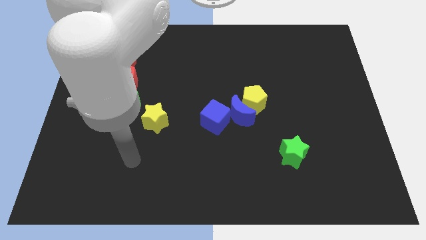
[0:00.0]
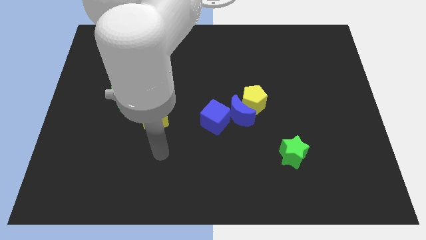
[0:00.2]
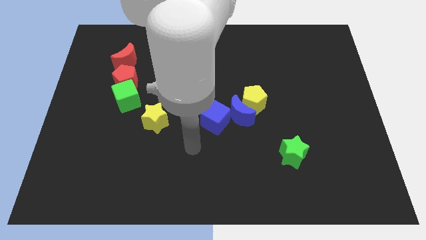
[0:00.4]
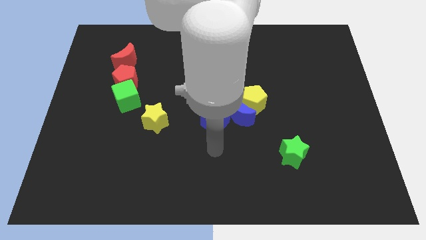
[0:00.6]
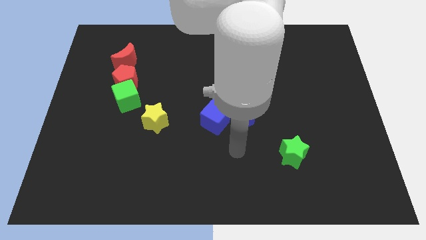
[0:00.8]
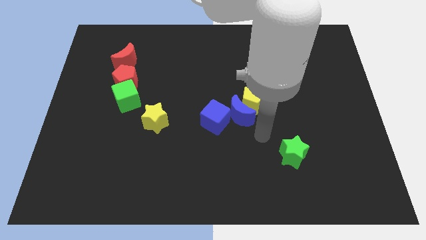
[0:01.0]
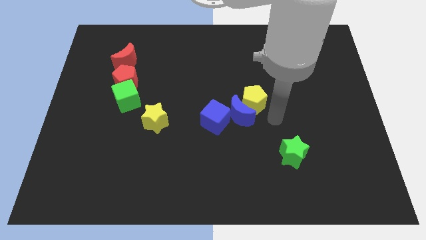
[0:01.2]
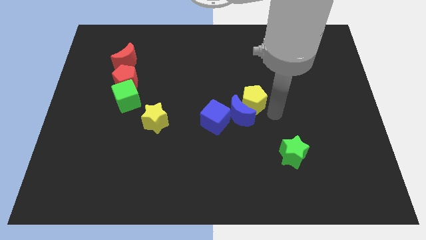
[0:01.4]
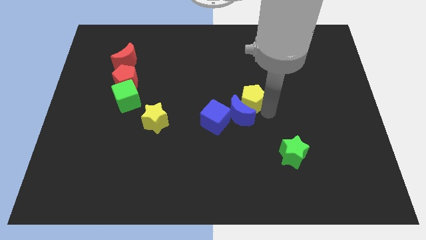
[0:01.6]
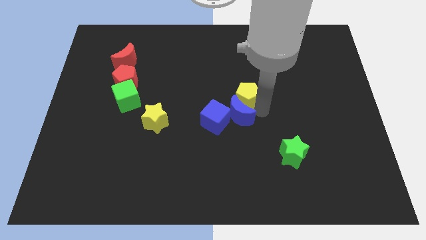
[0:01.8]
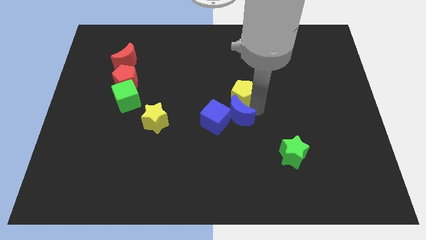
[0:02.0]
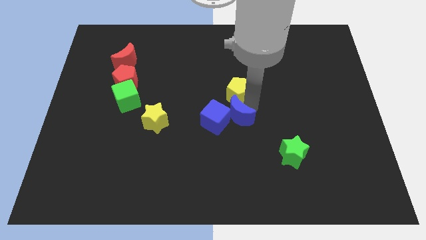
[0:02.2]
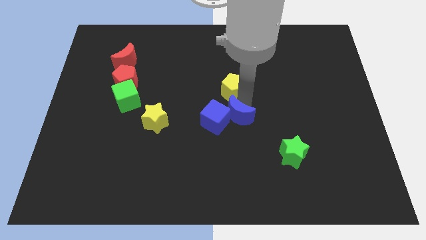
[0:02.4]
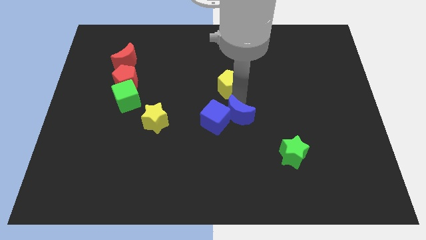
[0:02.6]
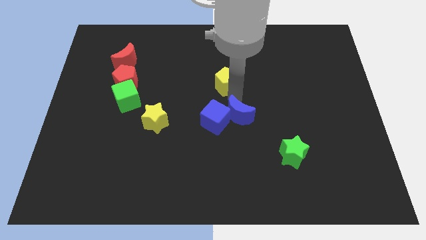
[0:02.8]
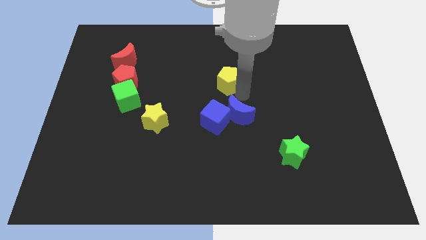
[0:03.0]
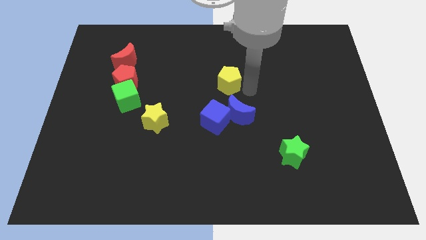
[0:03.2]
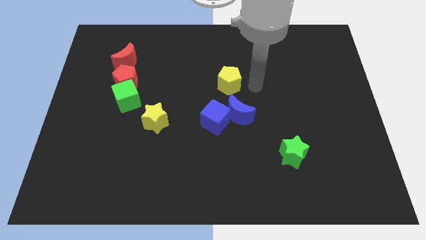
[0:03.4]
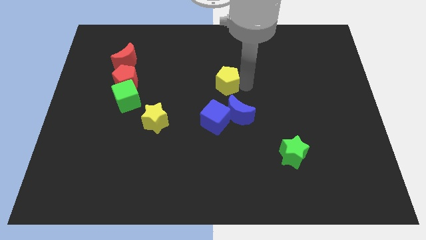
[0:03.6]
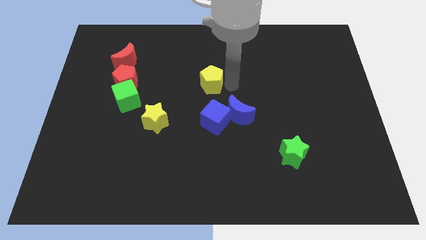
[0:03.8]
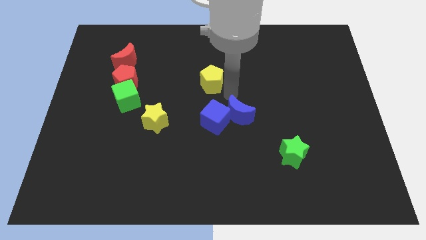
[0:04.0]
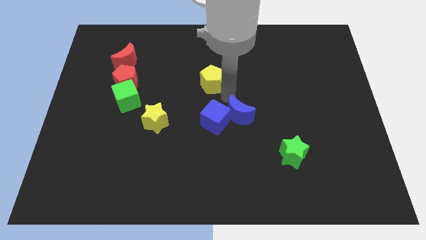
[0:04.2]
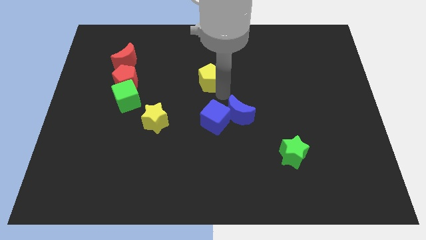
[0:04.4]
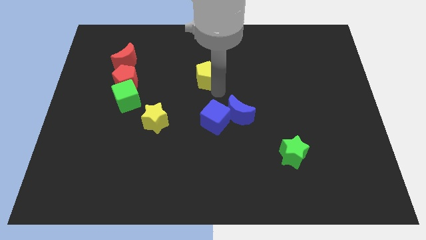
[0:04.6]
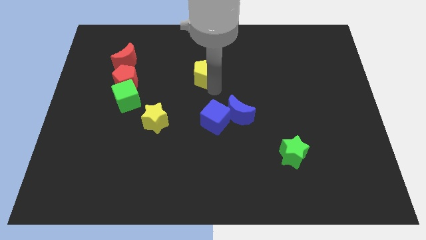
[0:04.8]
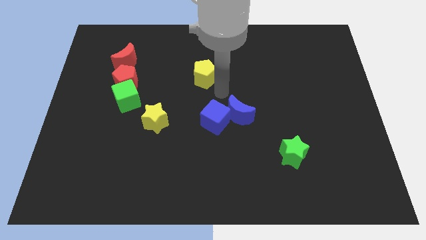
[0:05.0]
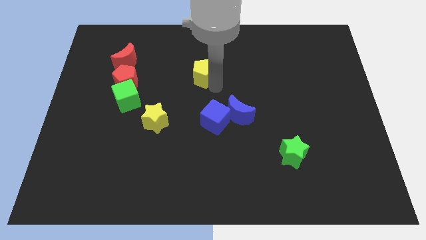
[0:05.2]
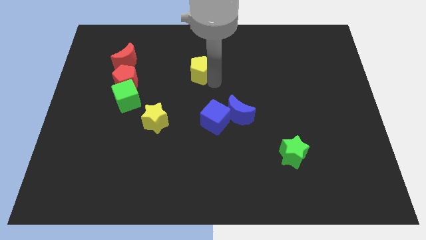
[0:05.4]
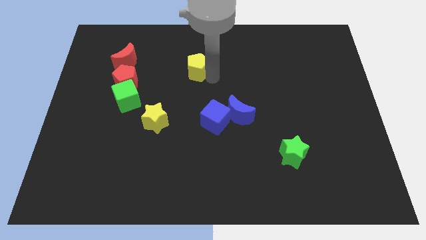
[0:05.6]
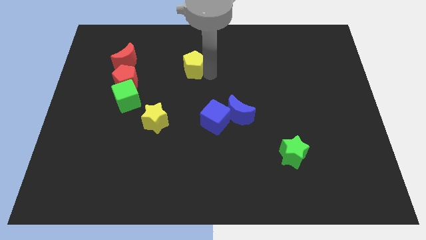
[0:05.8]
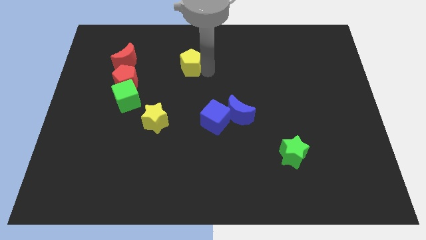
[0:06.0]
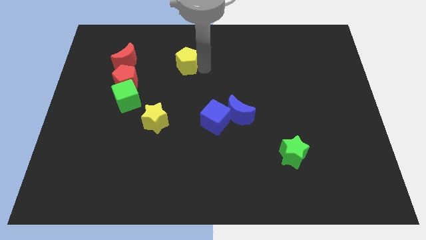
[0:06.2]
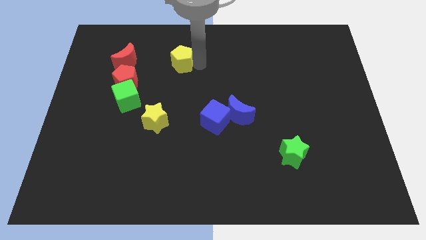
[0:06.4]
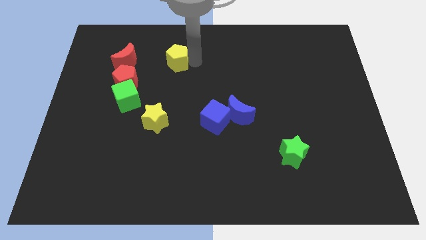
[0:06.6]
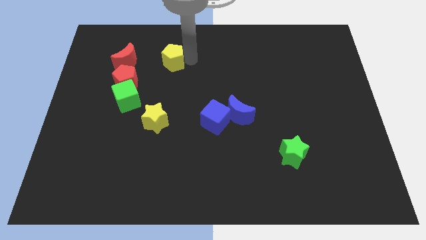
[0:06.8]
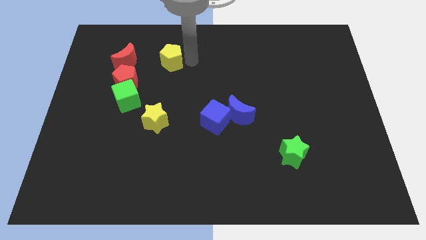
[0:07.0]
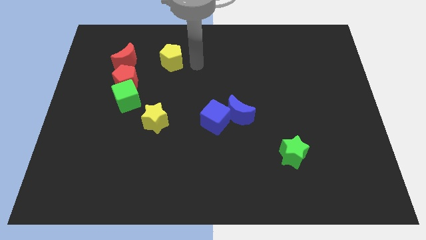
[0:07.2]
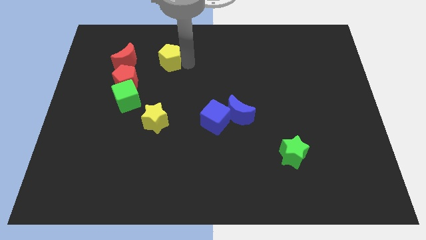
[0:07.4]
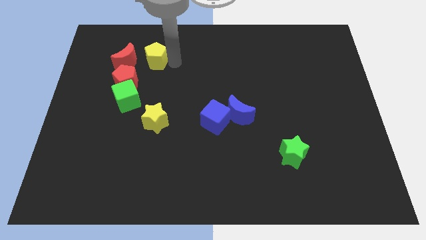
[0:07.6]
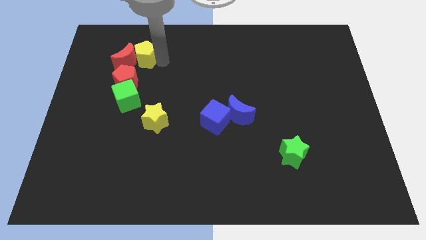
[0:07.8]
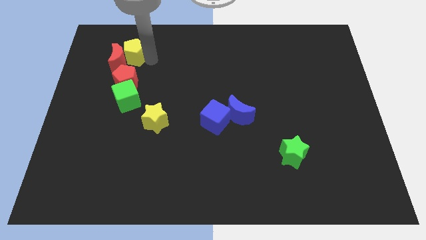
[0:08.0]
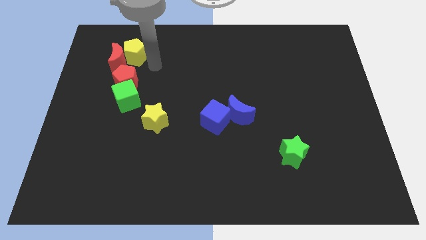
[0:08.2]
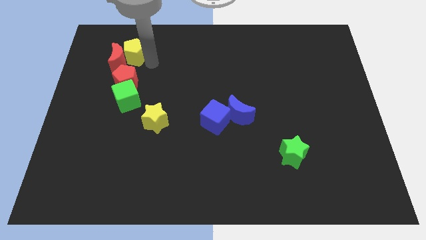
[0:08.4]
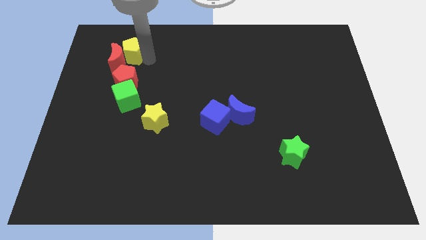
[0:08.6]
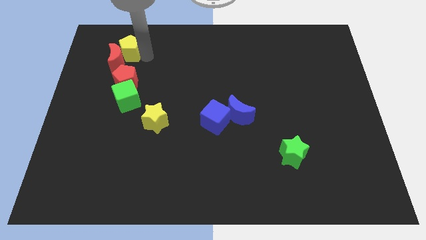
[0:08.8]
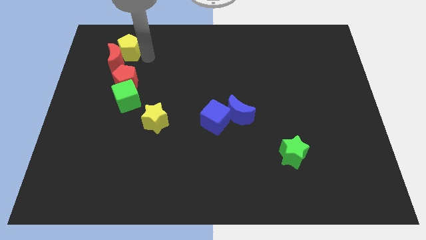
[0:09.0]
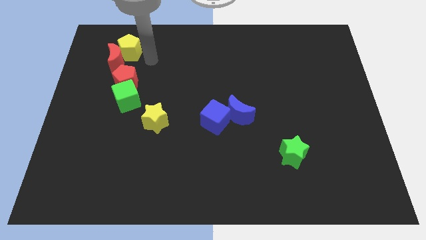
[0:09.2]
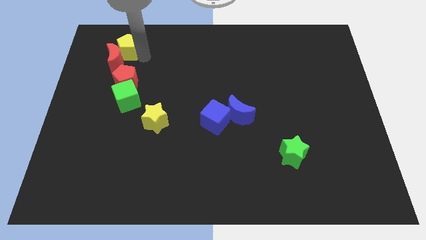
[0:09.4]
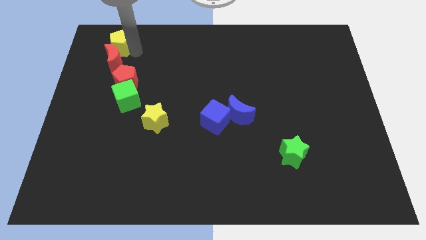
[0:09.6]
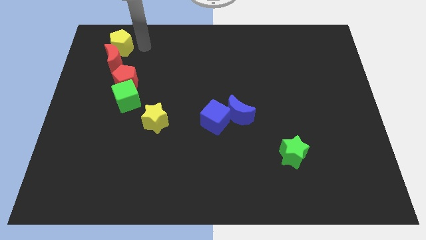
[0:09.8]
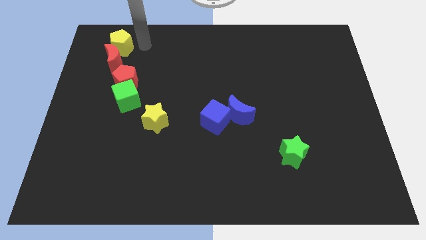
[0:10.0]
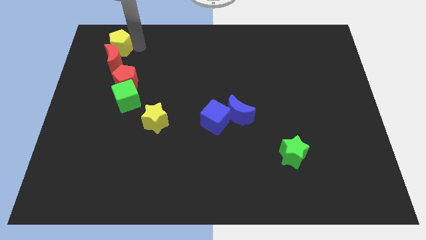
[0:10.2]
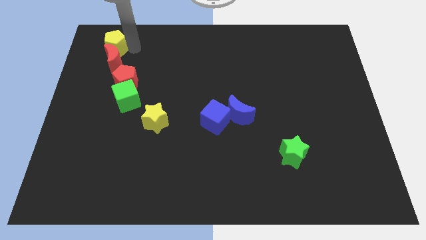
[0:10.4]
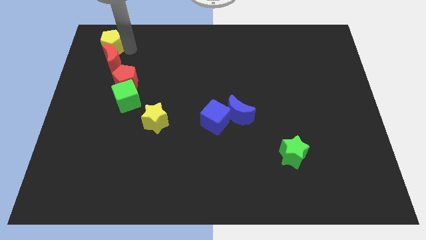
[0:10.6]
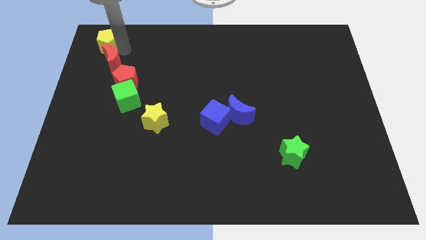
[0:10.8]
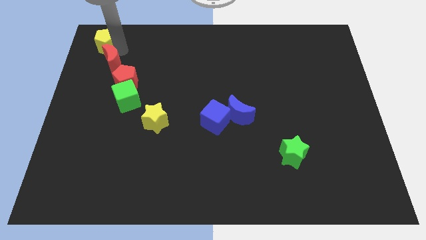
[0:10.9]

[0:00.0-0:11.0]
push the yellow pentagon to the top left corner
